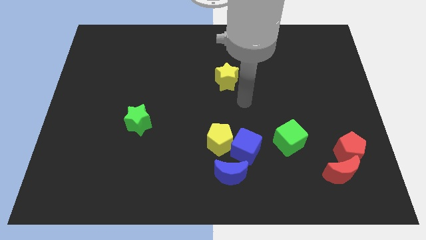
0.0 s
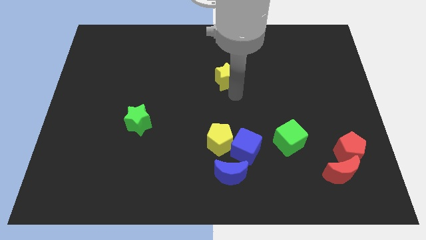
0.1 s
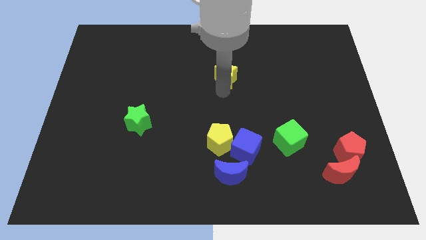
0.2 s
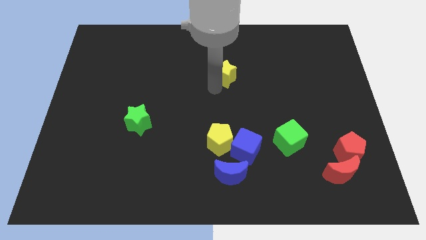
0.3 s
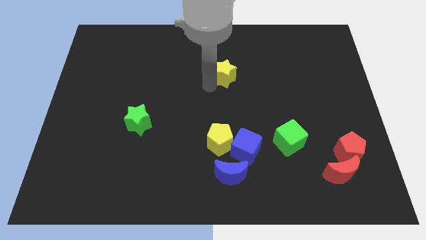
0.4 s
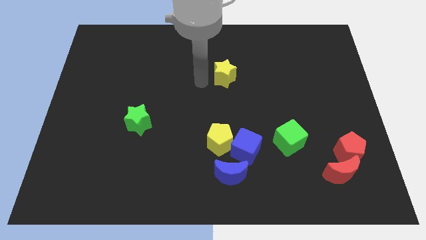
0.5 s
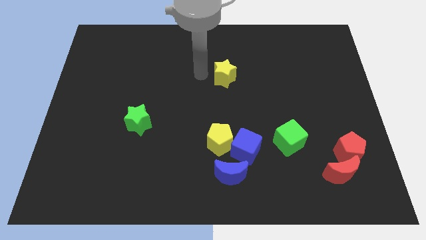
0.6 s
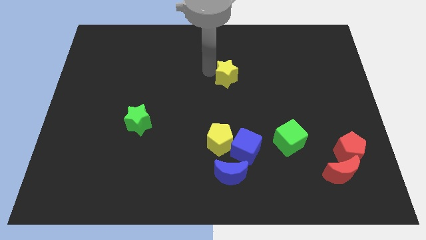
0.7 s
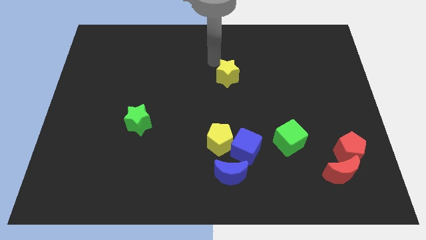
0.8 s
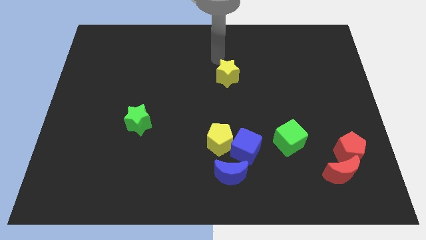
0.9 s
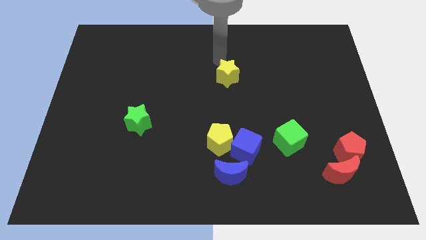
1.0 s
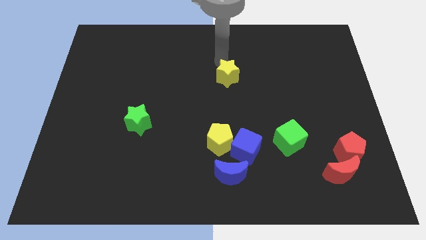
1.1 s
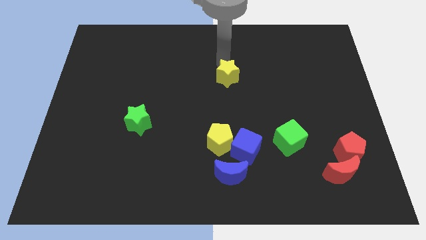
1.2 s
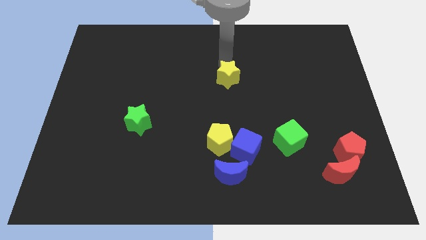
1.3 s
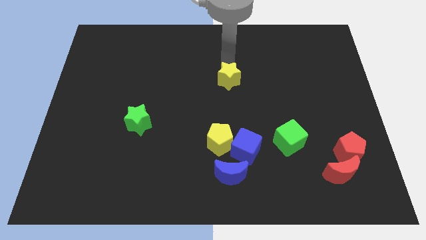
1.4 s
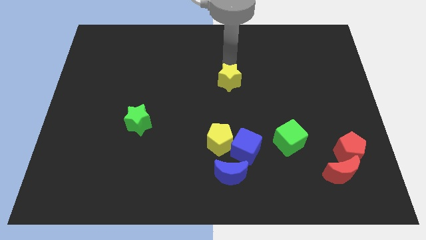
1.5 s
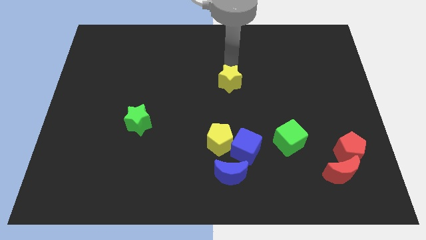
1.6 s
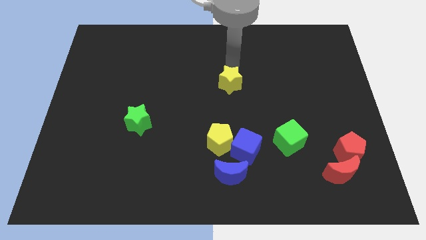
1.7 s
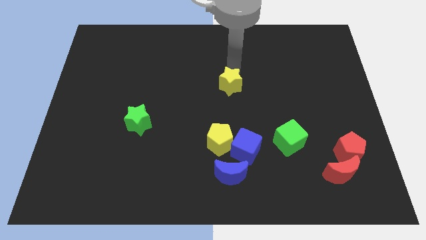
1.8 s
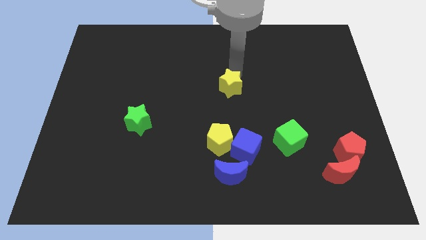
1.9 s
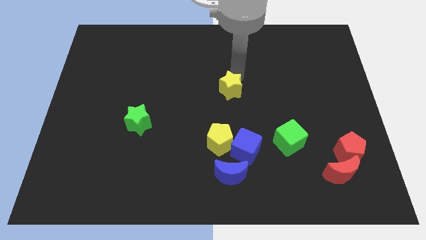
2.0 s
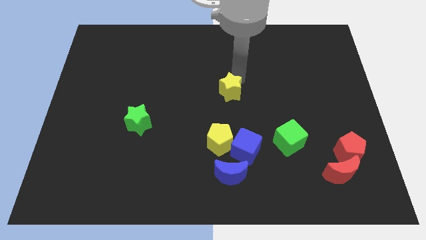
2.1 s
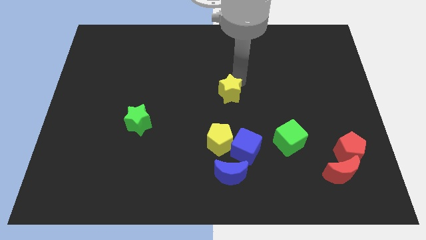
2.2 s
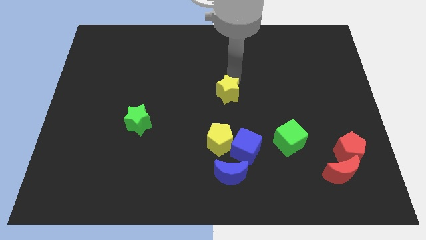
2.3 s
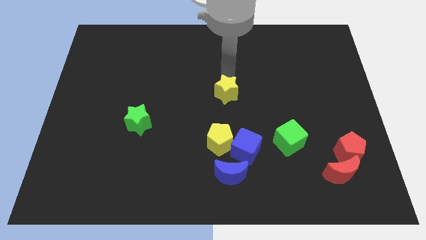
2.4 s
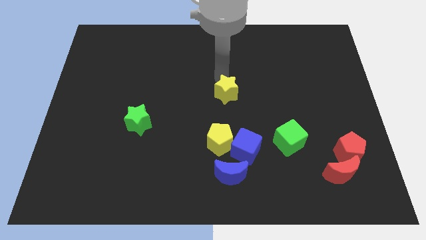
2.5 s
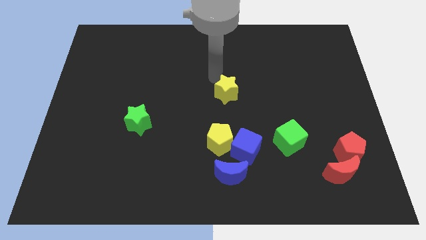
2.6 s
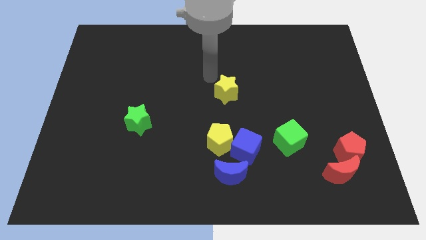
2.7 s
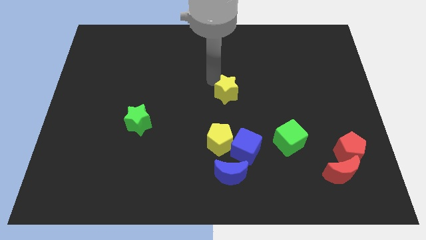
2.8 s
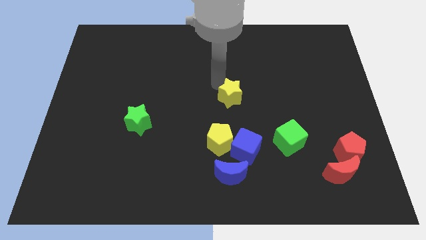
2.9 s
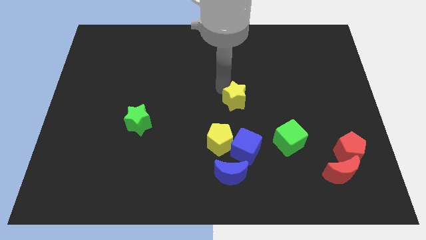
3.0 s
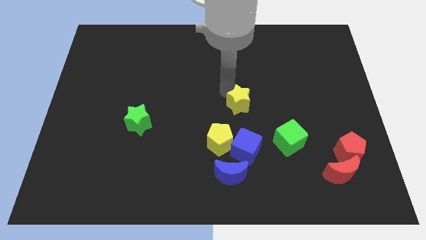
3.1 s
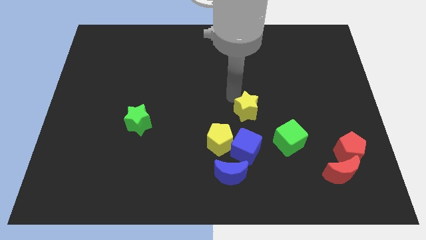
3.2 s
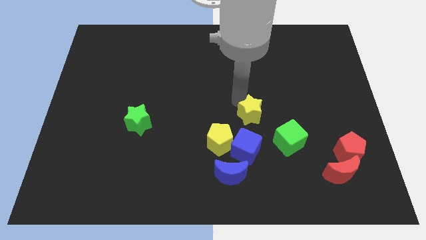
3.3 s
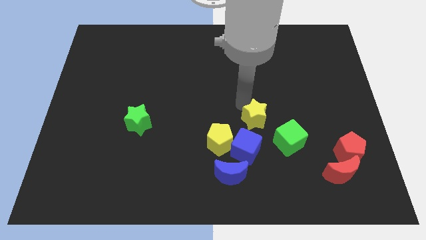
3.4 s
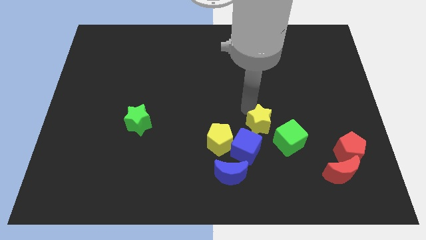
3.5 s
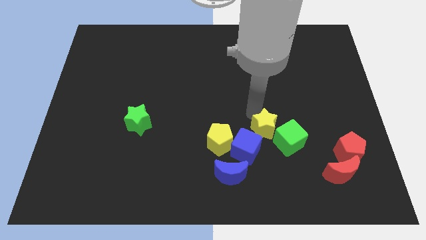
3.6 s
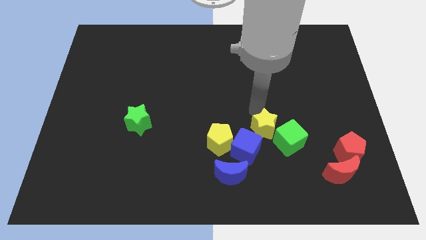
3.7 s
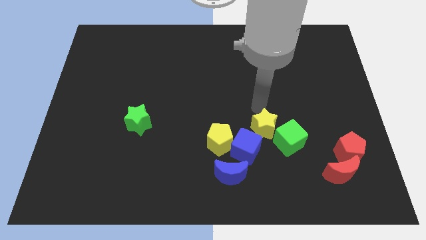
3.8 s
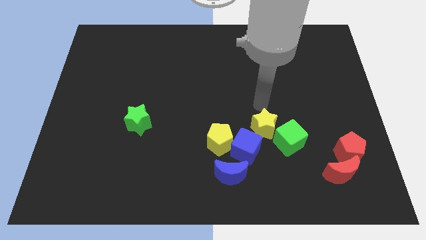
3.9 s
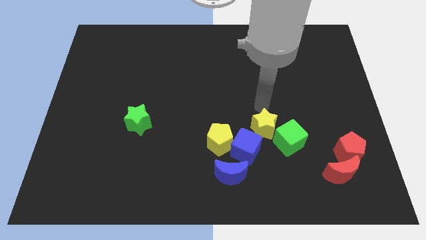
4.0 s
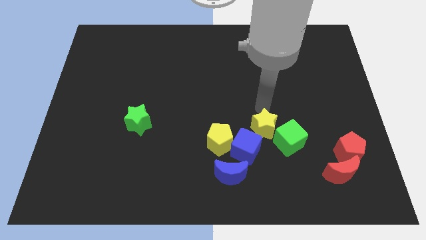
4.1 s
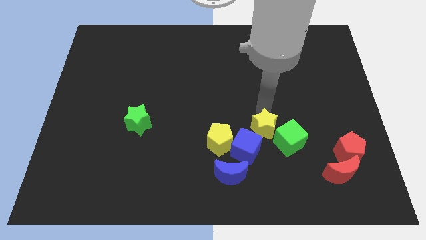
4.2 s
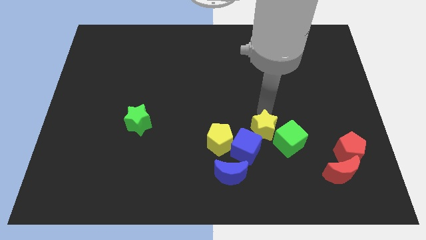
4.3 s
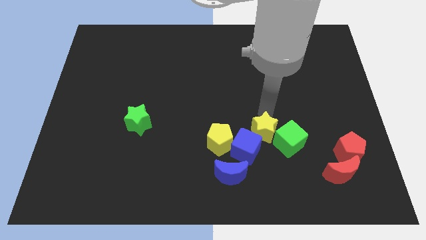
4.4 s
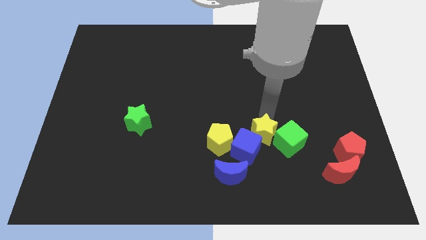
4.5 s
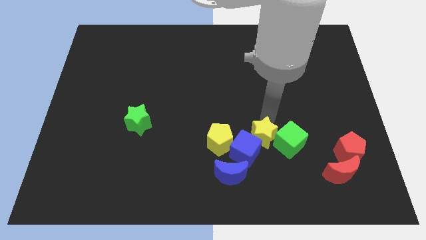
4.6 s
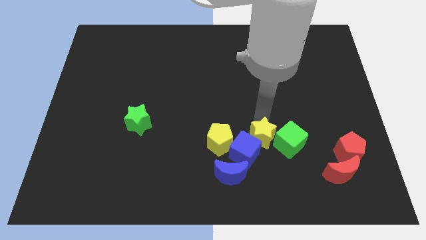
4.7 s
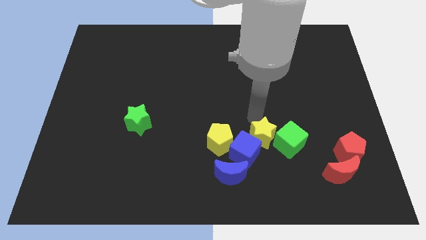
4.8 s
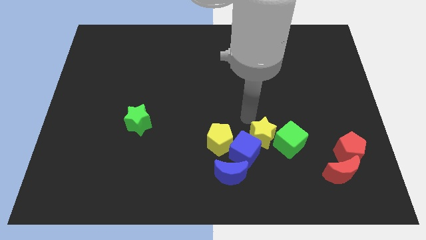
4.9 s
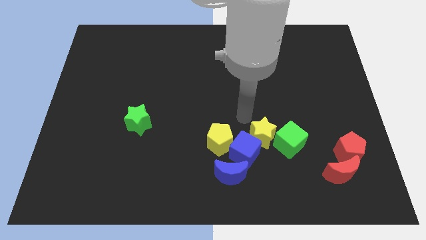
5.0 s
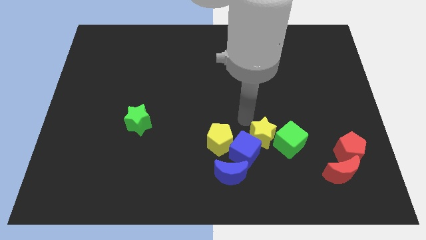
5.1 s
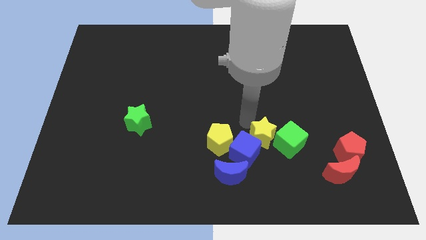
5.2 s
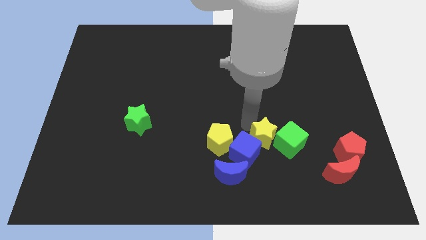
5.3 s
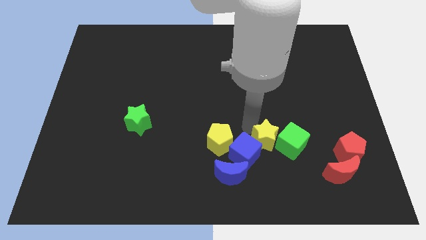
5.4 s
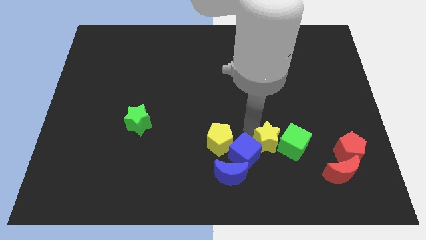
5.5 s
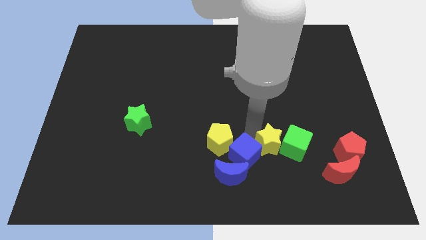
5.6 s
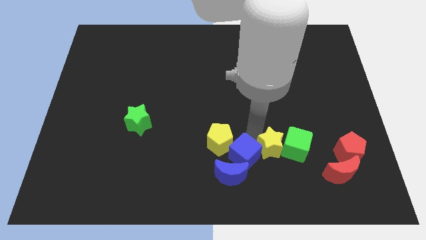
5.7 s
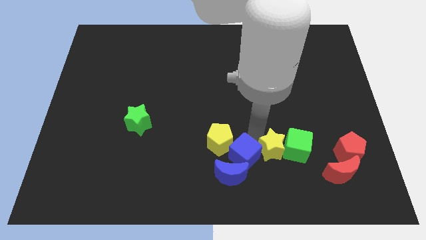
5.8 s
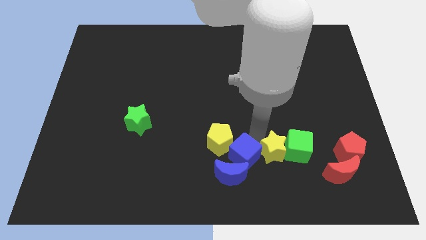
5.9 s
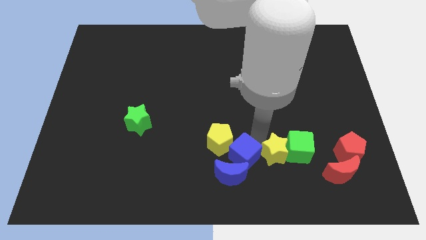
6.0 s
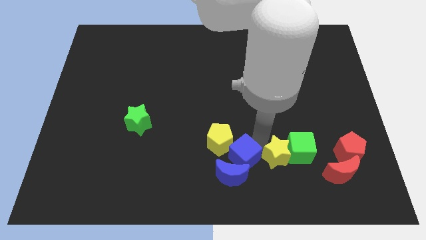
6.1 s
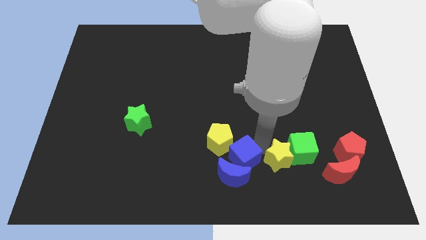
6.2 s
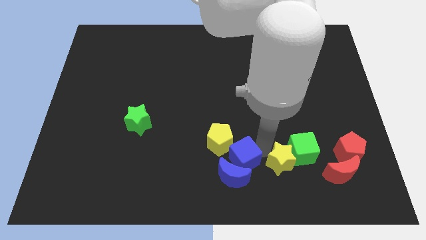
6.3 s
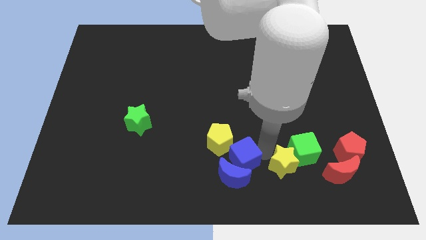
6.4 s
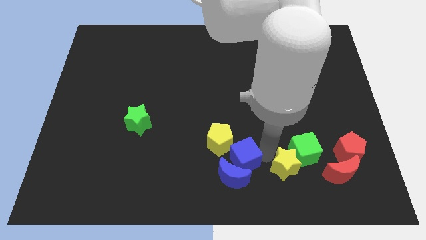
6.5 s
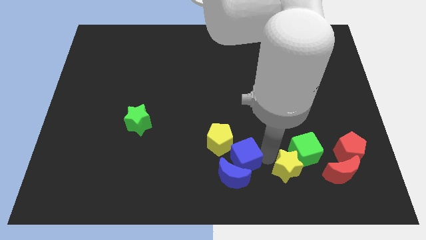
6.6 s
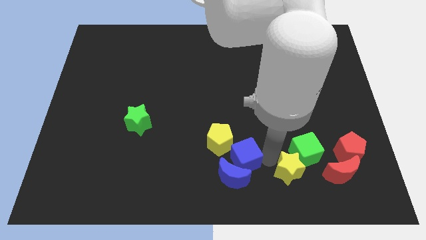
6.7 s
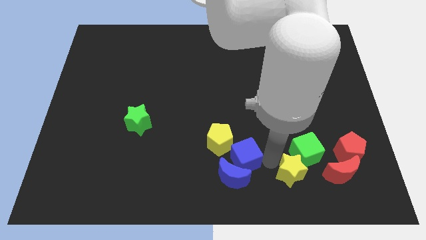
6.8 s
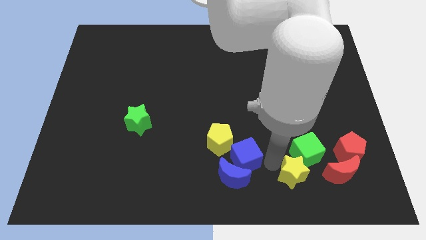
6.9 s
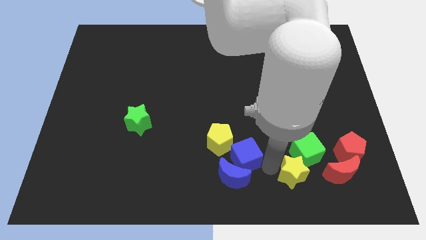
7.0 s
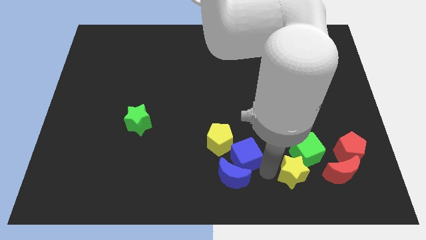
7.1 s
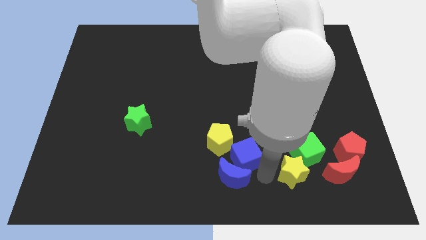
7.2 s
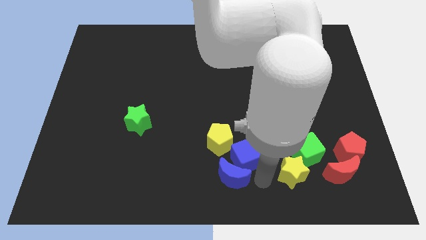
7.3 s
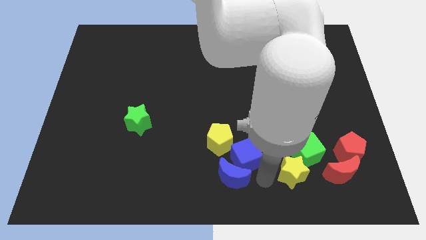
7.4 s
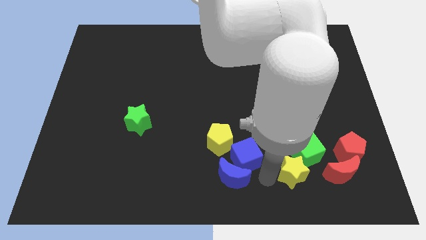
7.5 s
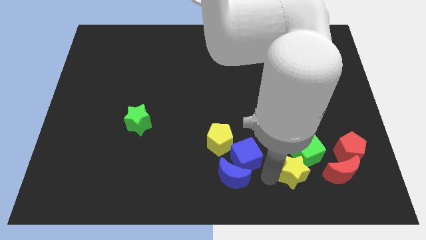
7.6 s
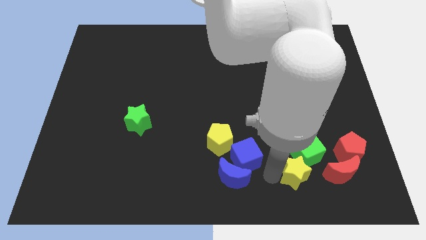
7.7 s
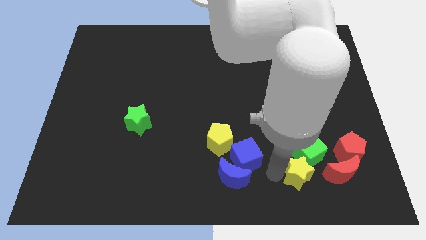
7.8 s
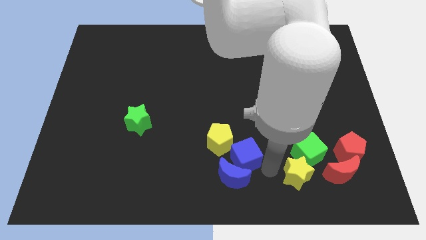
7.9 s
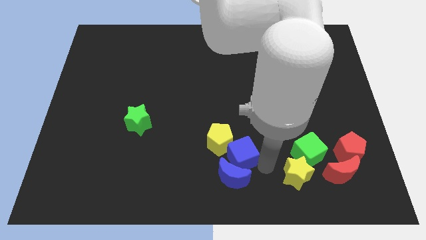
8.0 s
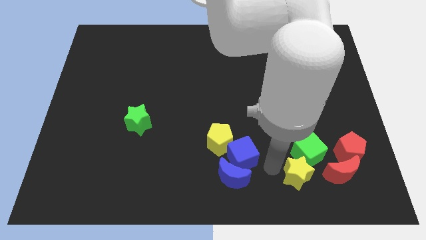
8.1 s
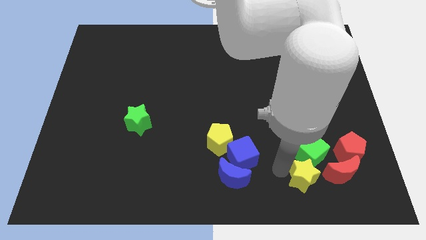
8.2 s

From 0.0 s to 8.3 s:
move the yellow star diagonally down and to the left of the red pentagon
